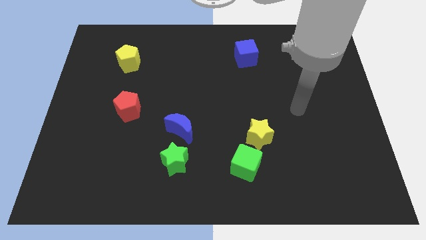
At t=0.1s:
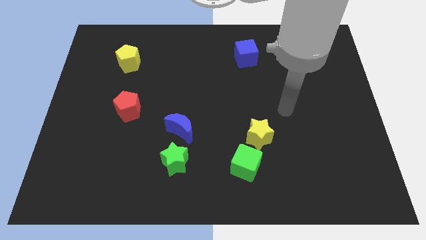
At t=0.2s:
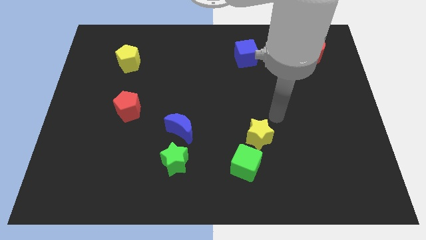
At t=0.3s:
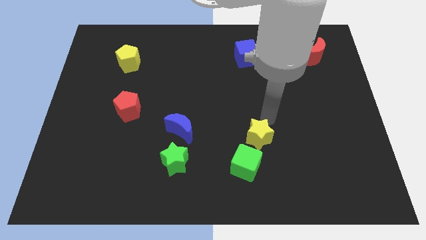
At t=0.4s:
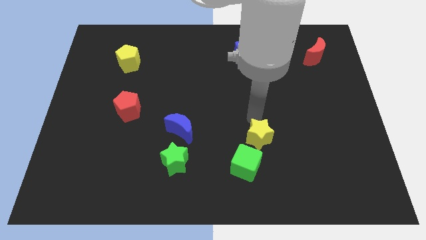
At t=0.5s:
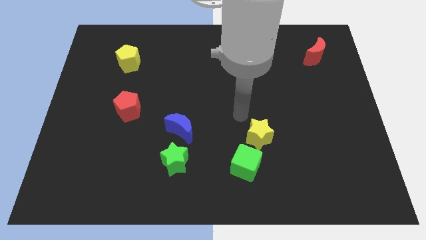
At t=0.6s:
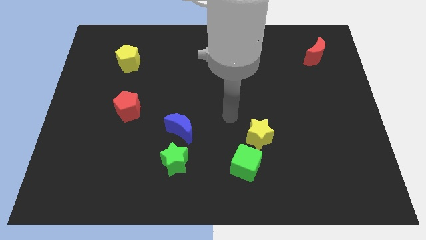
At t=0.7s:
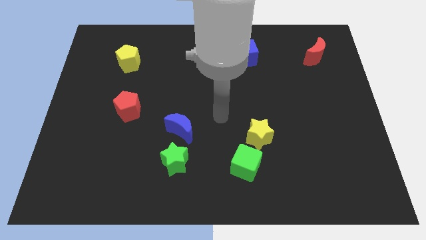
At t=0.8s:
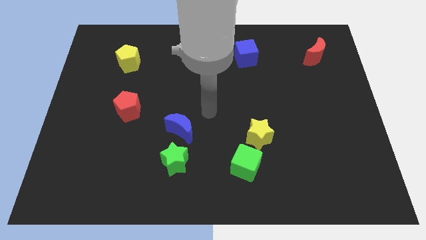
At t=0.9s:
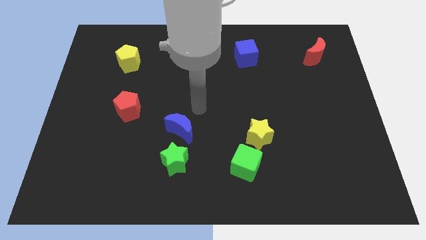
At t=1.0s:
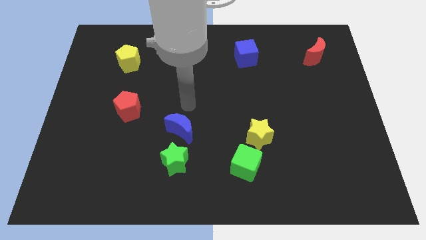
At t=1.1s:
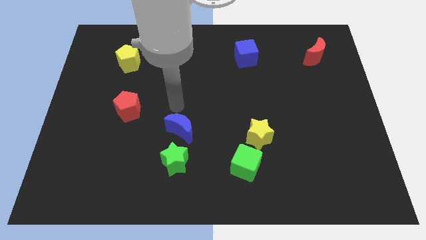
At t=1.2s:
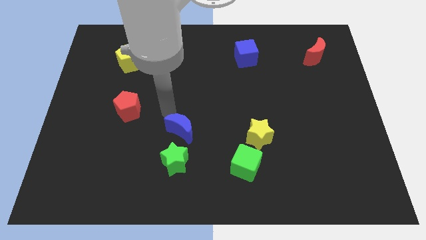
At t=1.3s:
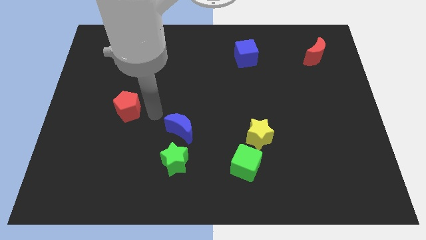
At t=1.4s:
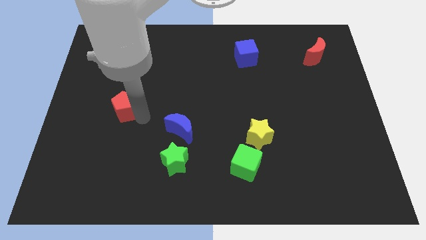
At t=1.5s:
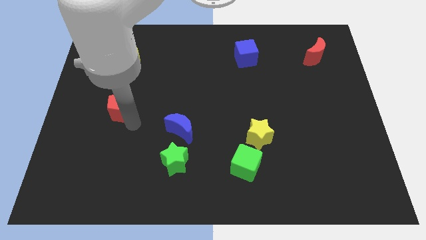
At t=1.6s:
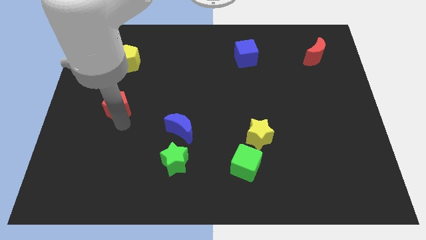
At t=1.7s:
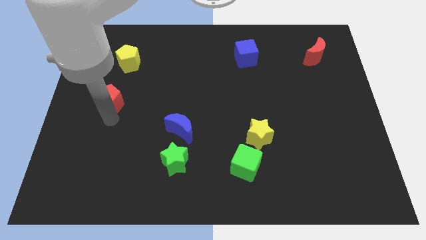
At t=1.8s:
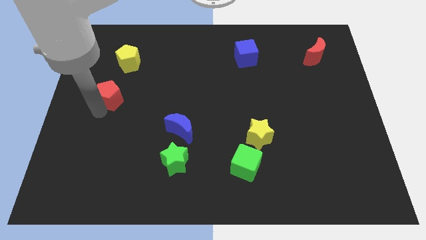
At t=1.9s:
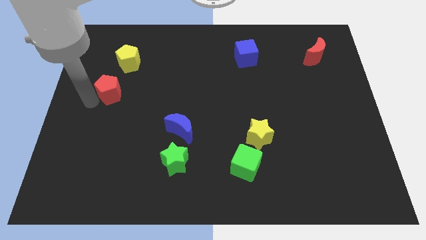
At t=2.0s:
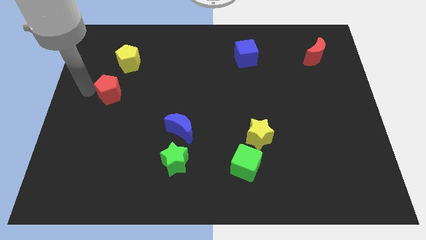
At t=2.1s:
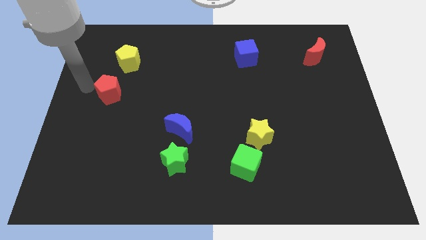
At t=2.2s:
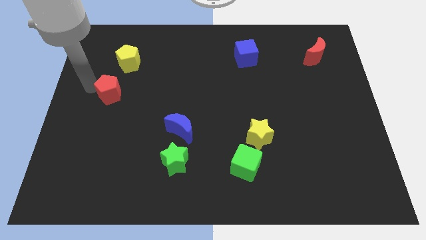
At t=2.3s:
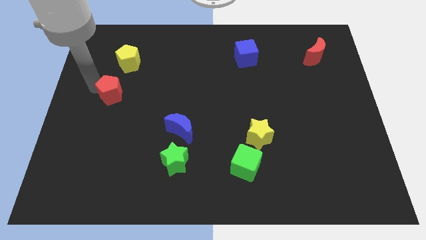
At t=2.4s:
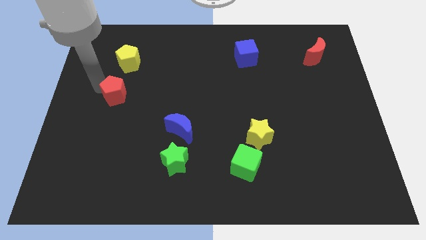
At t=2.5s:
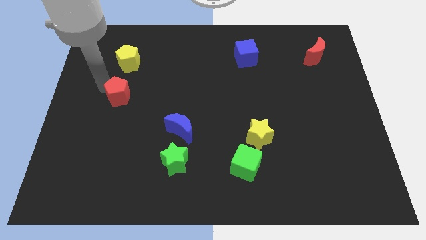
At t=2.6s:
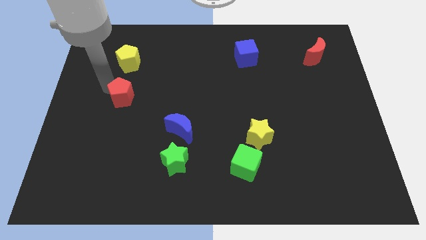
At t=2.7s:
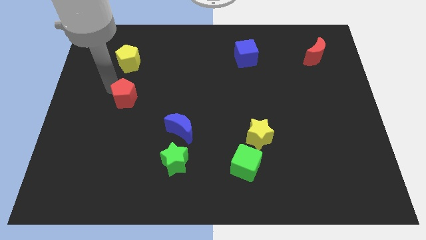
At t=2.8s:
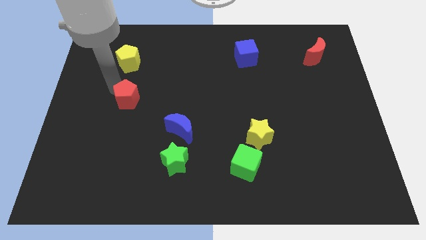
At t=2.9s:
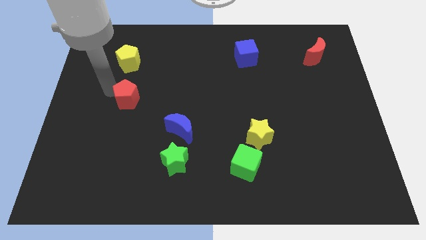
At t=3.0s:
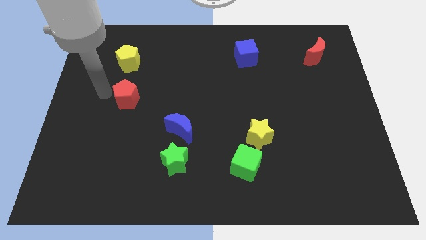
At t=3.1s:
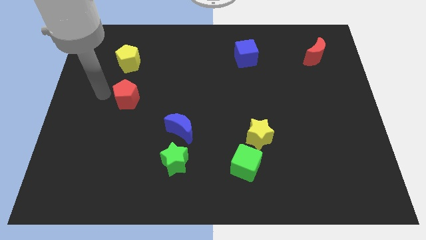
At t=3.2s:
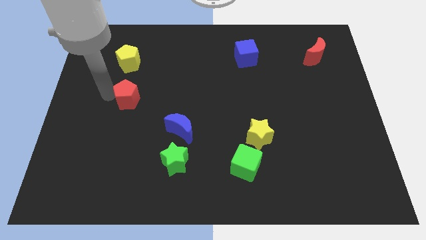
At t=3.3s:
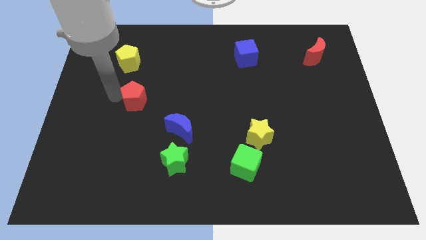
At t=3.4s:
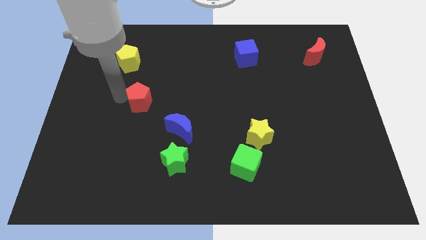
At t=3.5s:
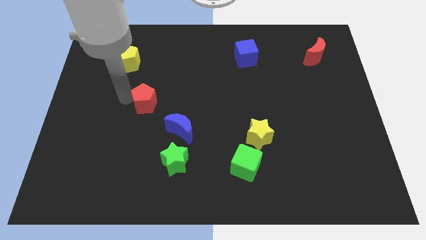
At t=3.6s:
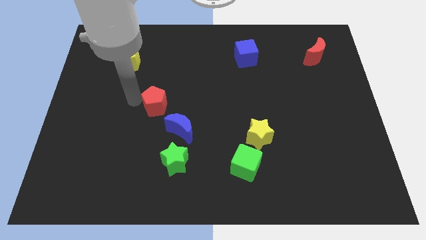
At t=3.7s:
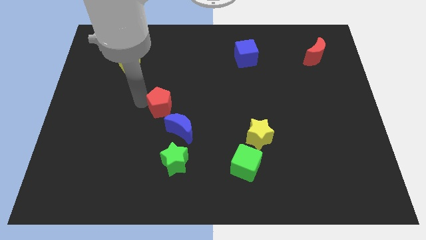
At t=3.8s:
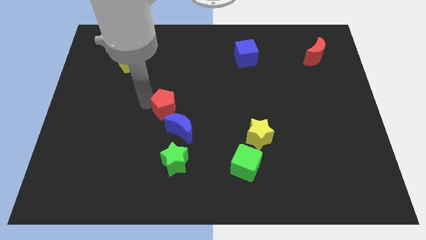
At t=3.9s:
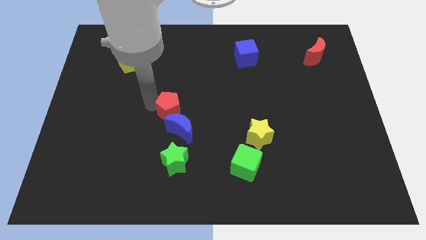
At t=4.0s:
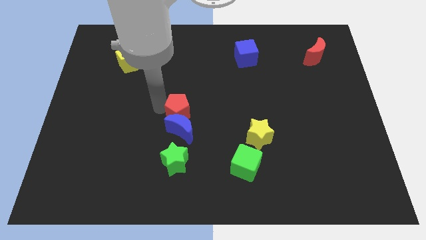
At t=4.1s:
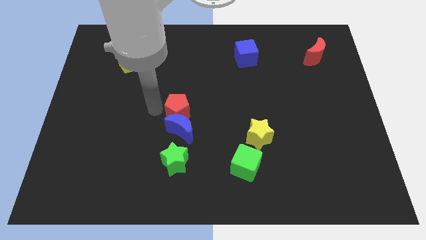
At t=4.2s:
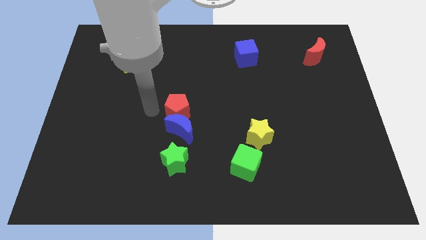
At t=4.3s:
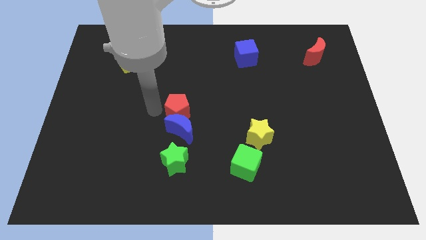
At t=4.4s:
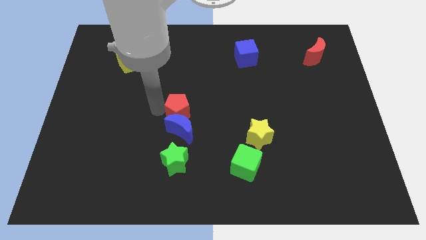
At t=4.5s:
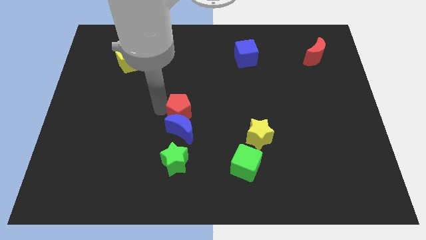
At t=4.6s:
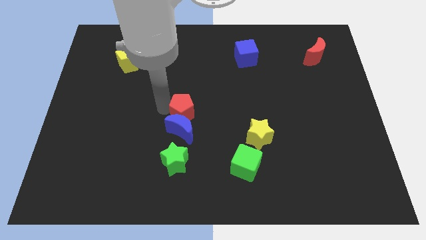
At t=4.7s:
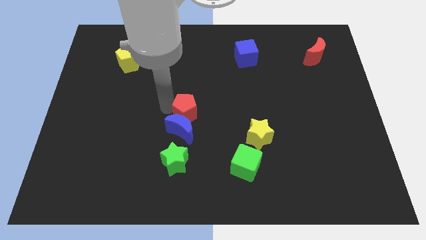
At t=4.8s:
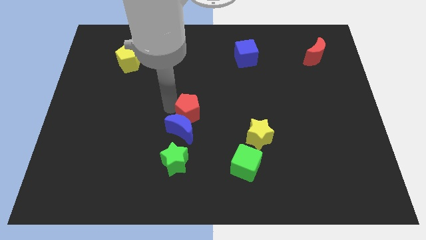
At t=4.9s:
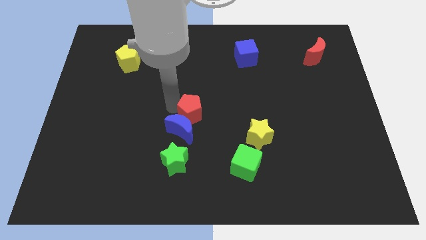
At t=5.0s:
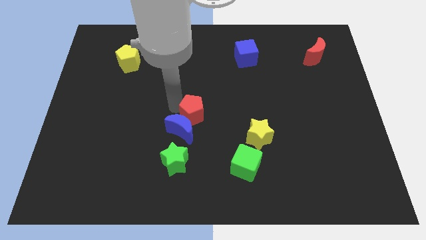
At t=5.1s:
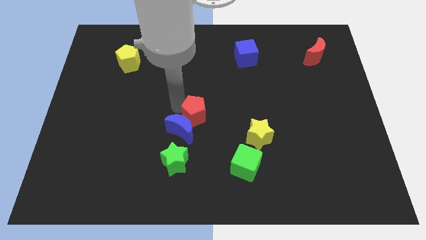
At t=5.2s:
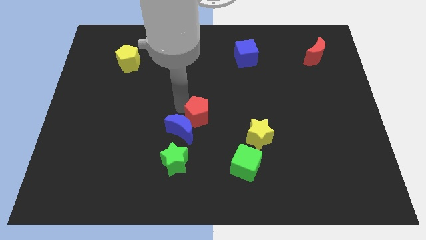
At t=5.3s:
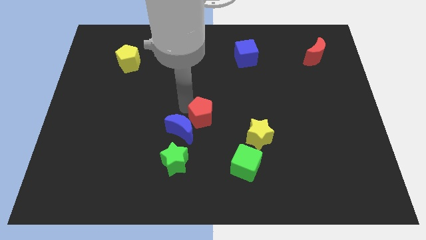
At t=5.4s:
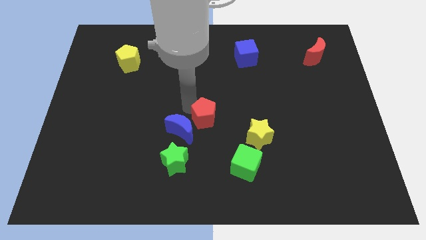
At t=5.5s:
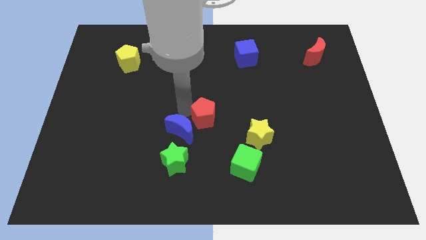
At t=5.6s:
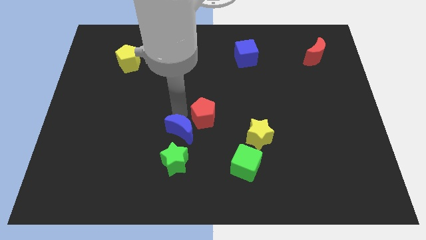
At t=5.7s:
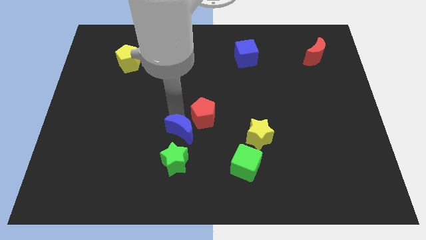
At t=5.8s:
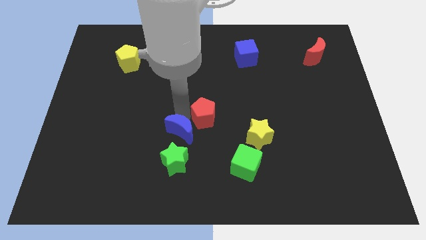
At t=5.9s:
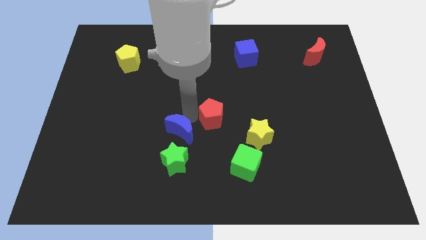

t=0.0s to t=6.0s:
put the red pentagon to the top left of the yellow star
